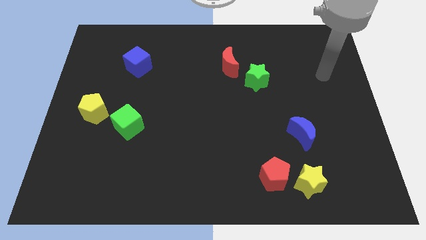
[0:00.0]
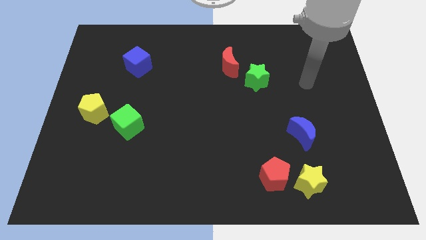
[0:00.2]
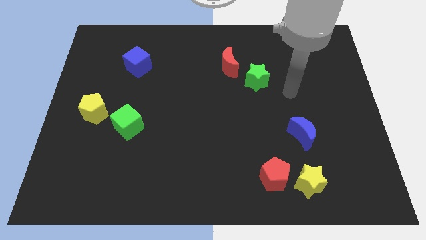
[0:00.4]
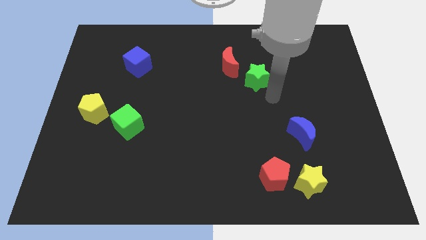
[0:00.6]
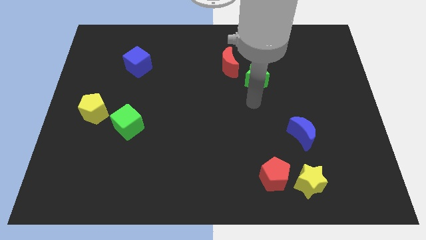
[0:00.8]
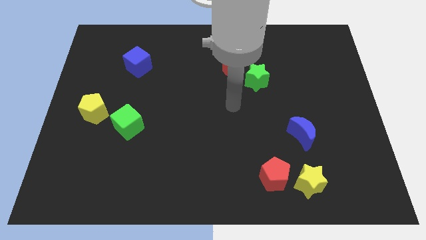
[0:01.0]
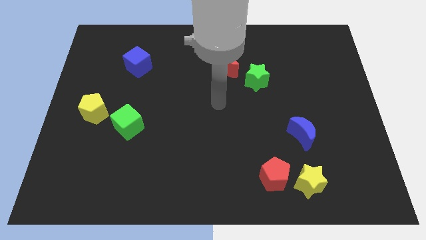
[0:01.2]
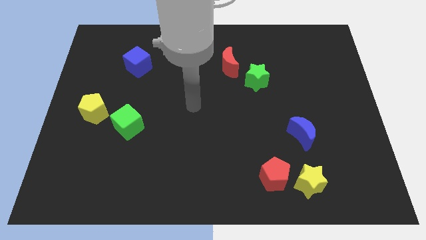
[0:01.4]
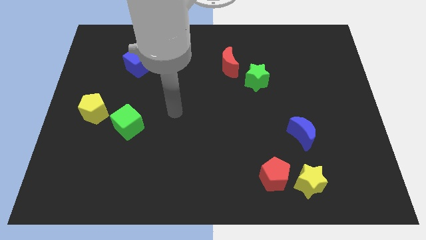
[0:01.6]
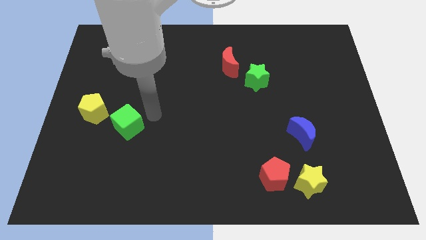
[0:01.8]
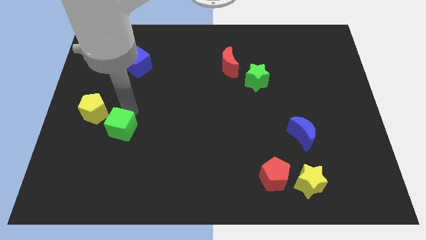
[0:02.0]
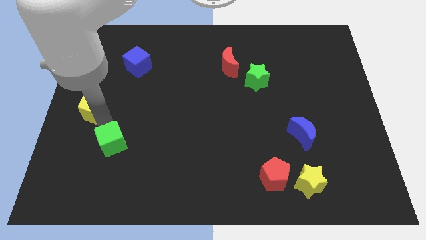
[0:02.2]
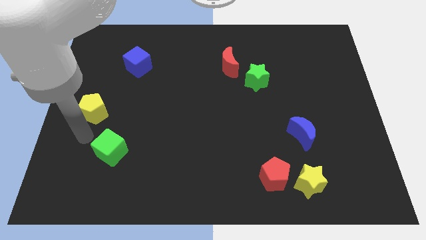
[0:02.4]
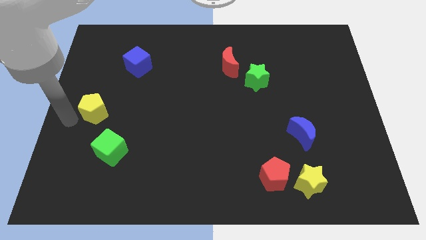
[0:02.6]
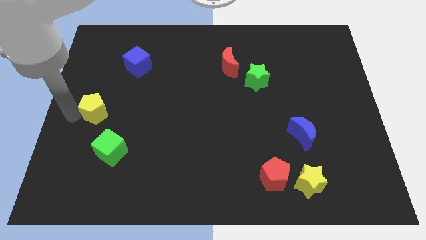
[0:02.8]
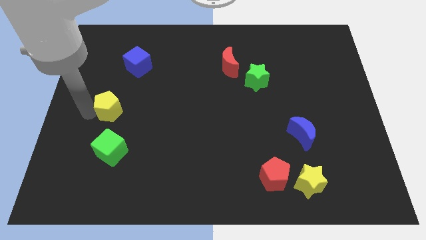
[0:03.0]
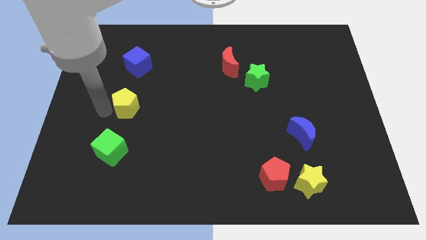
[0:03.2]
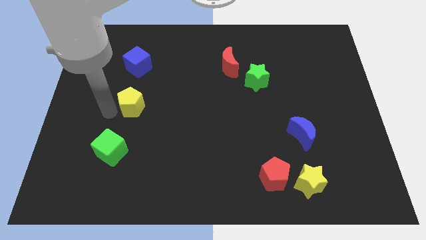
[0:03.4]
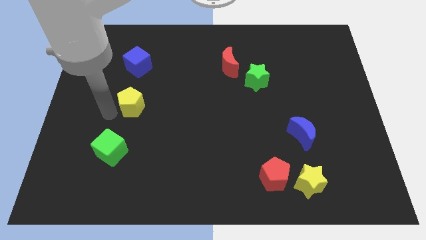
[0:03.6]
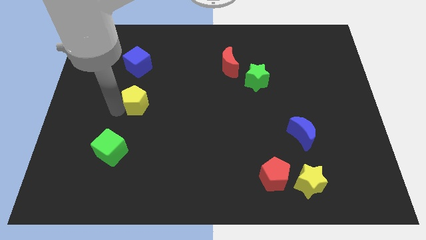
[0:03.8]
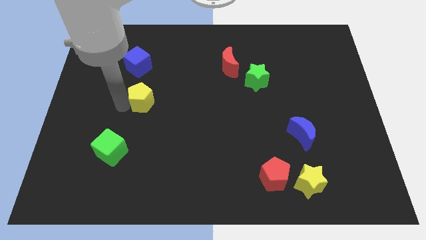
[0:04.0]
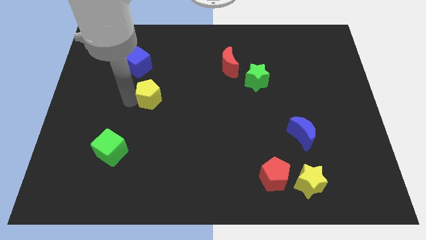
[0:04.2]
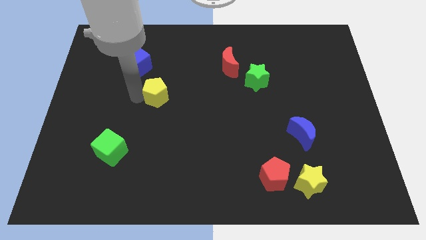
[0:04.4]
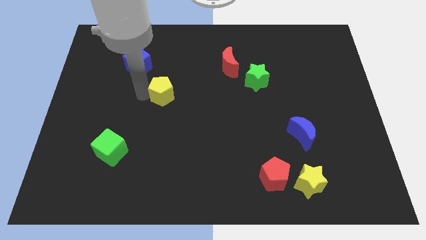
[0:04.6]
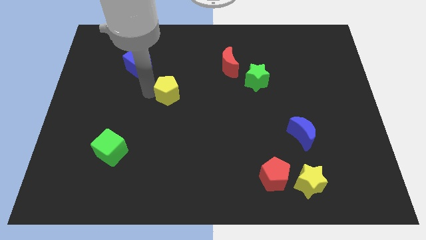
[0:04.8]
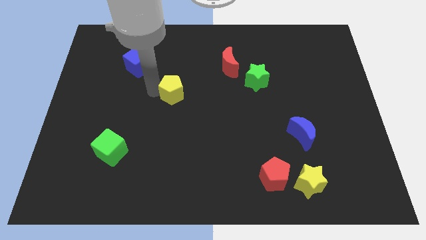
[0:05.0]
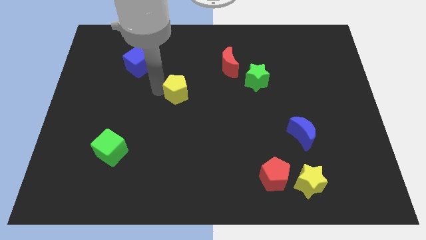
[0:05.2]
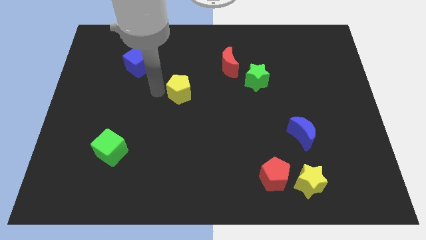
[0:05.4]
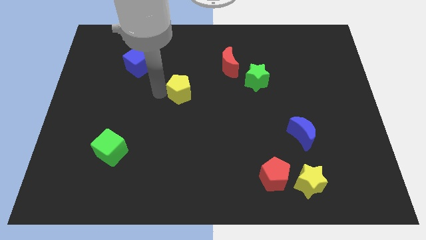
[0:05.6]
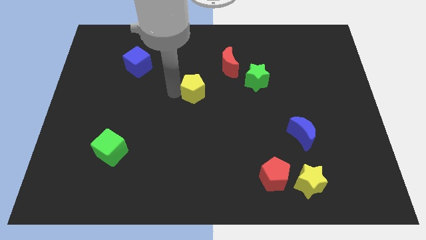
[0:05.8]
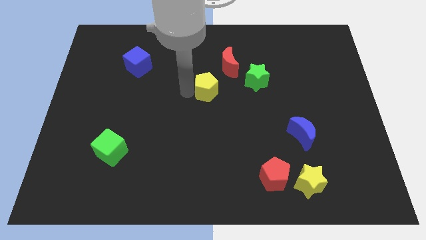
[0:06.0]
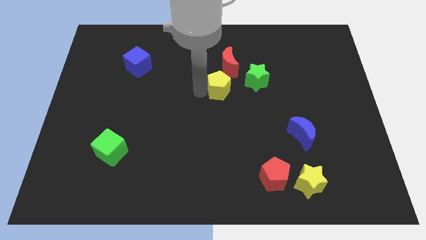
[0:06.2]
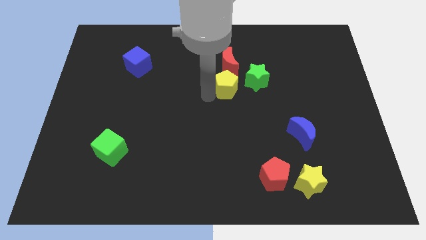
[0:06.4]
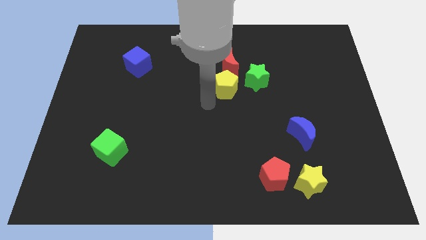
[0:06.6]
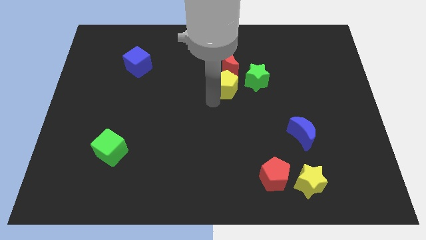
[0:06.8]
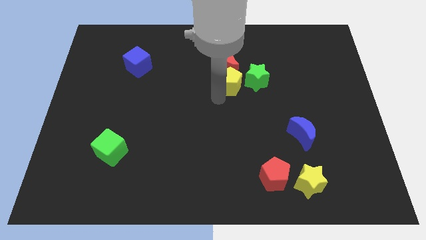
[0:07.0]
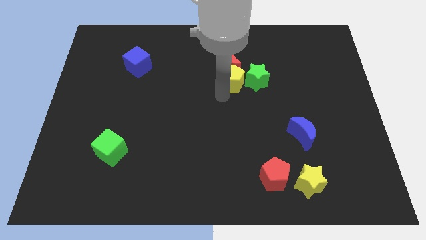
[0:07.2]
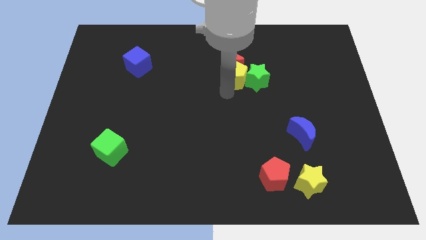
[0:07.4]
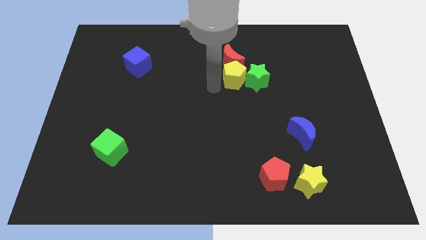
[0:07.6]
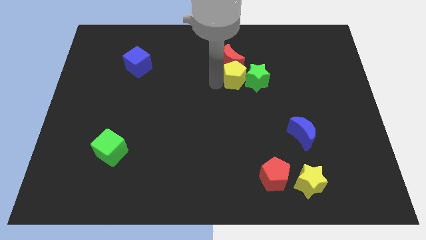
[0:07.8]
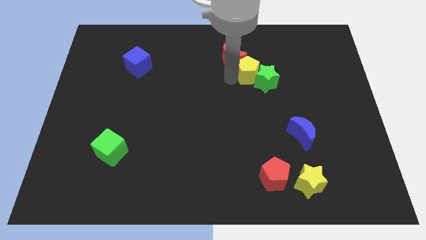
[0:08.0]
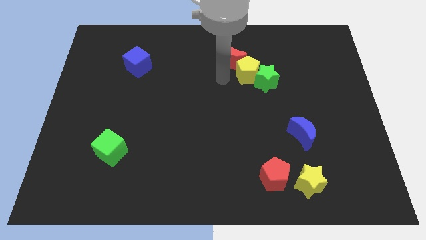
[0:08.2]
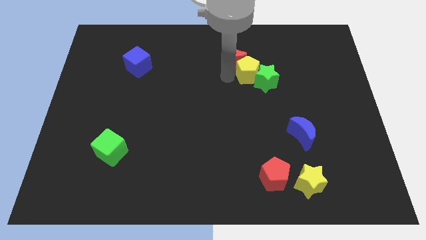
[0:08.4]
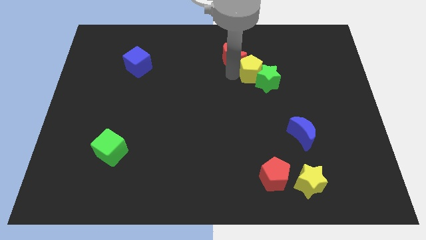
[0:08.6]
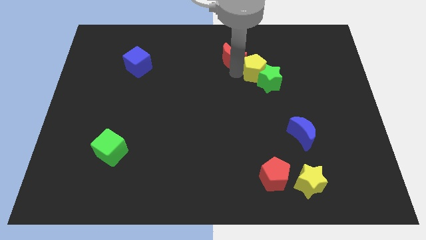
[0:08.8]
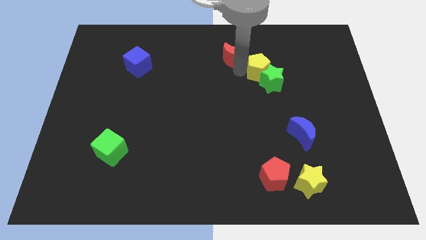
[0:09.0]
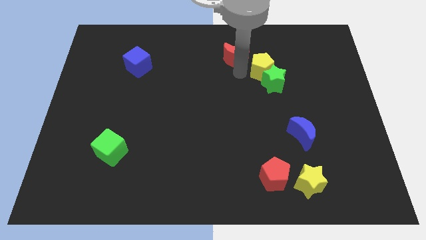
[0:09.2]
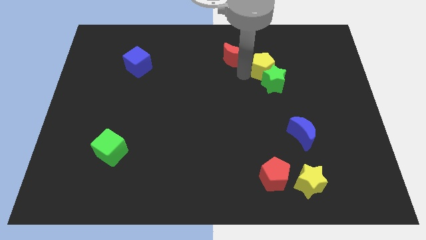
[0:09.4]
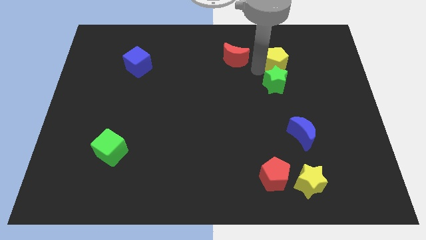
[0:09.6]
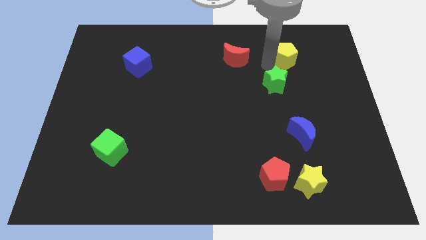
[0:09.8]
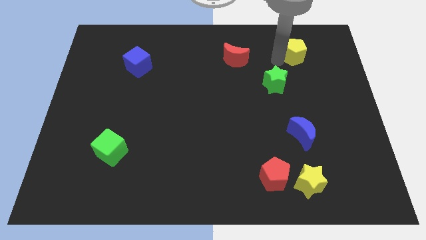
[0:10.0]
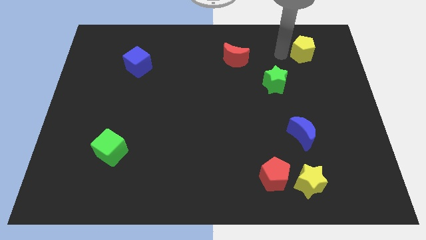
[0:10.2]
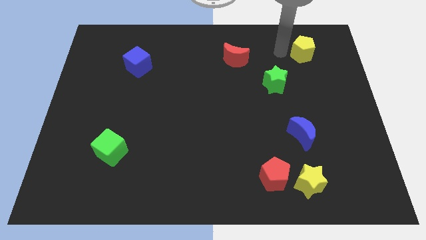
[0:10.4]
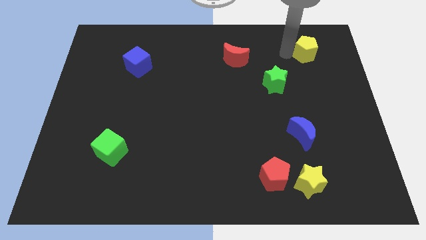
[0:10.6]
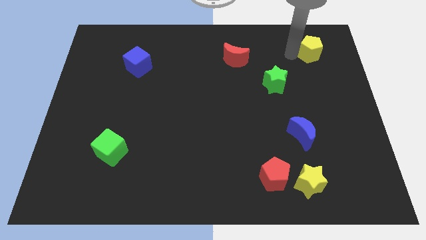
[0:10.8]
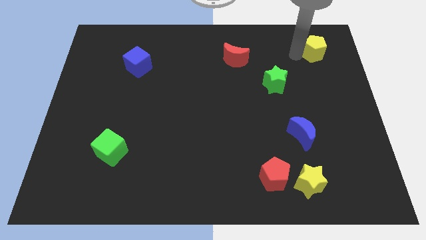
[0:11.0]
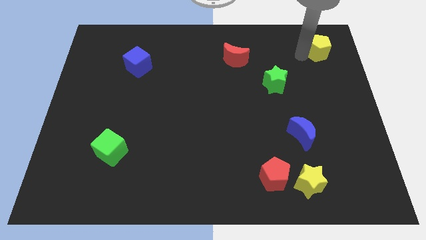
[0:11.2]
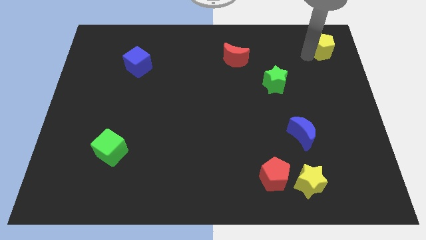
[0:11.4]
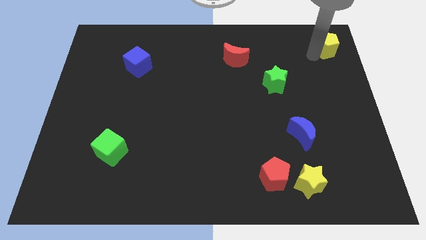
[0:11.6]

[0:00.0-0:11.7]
push the yellow pentagon to the top right
